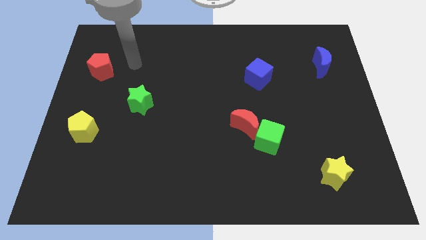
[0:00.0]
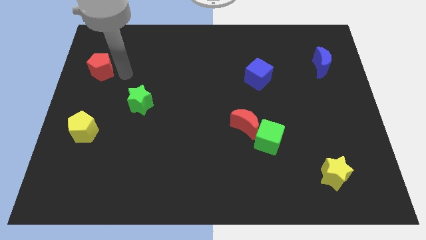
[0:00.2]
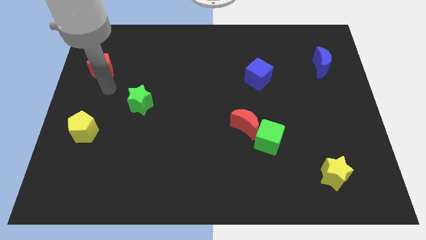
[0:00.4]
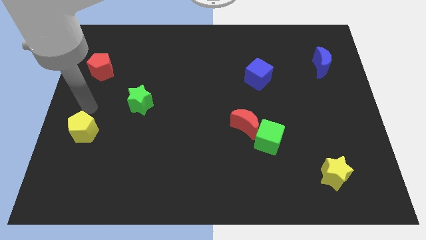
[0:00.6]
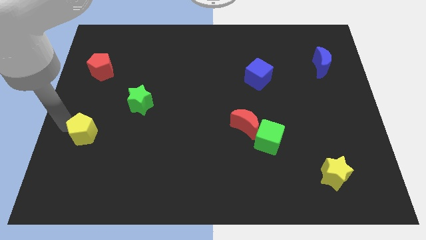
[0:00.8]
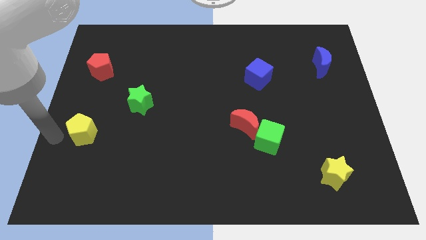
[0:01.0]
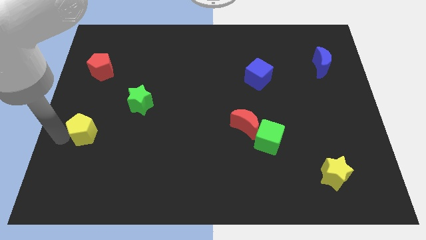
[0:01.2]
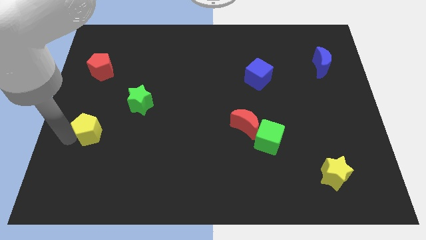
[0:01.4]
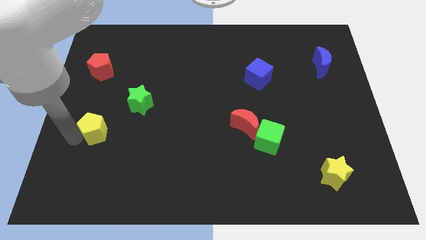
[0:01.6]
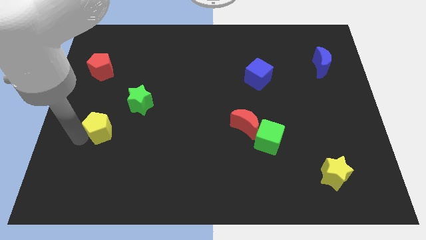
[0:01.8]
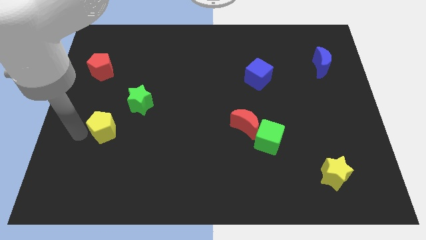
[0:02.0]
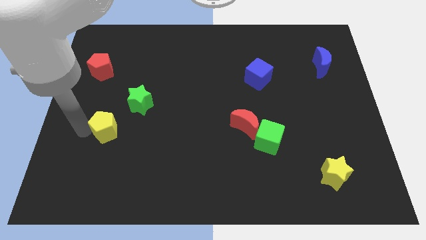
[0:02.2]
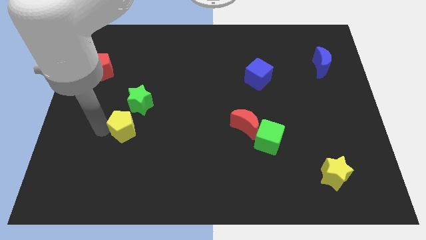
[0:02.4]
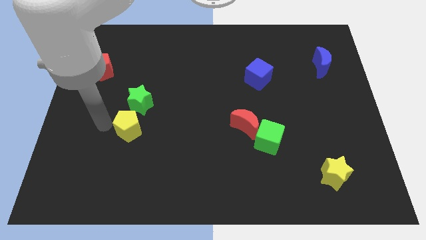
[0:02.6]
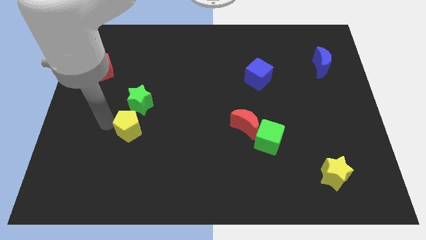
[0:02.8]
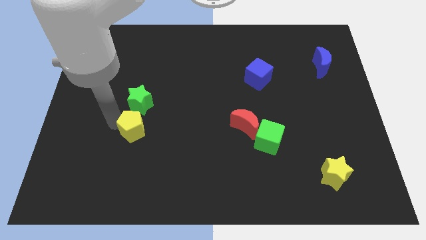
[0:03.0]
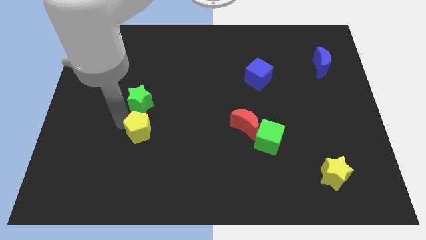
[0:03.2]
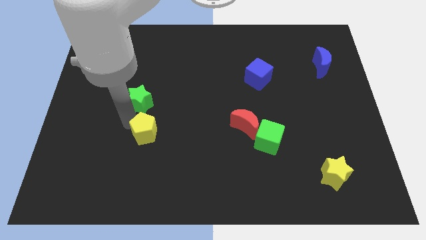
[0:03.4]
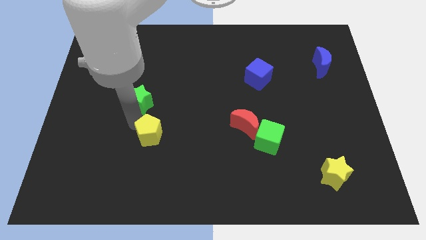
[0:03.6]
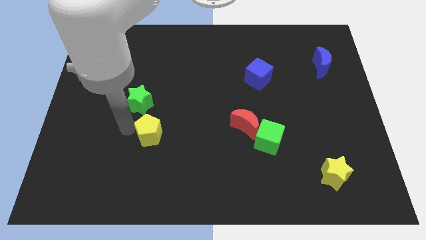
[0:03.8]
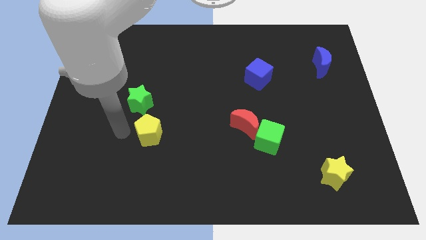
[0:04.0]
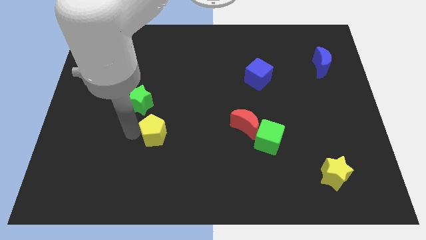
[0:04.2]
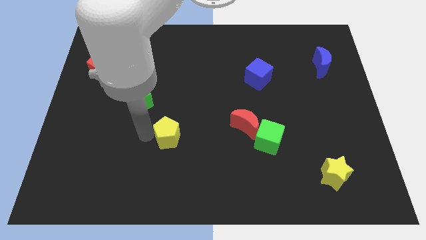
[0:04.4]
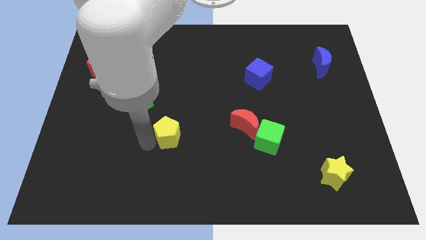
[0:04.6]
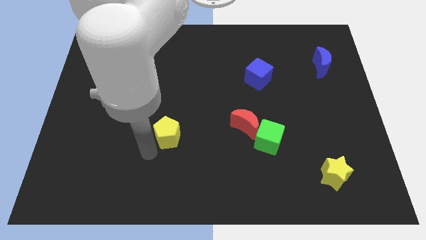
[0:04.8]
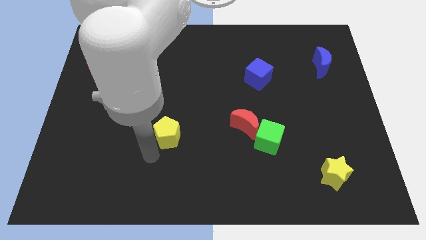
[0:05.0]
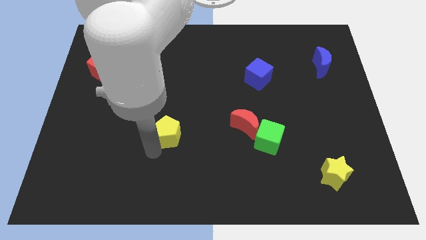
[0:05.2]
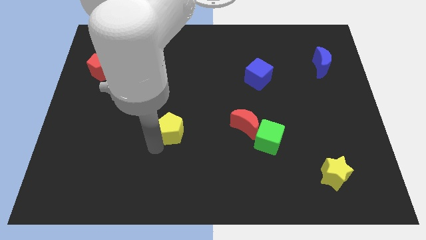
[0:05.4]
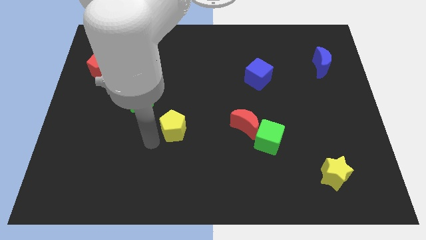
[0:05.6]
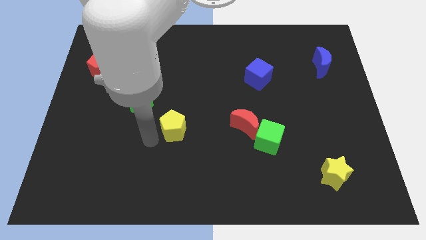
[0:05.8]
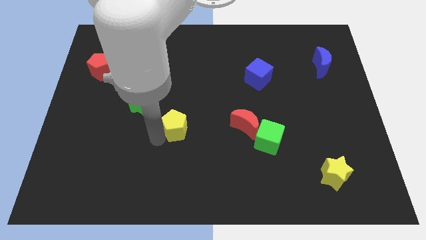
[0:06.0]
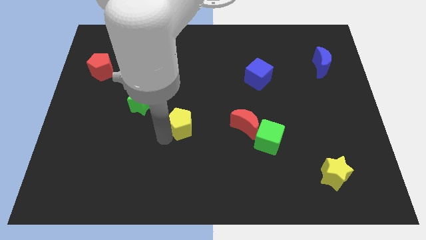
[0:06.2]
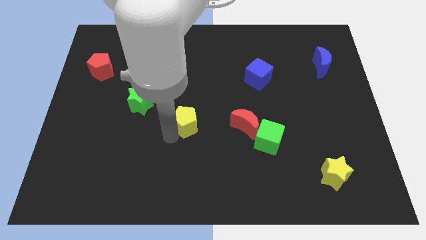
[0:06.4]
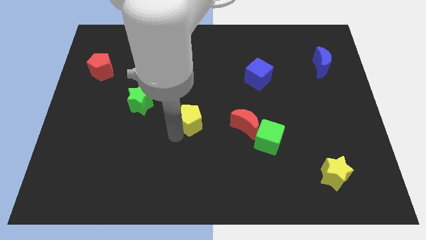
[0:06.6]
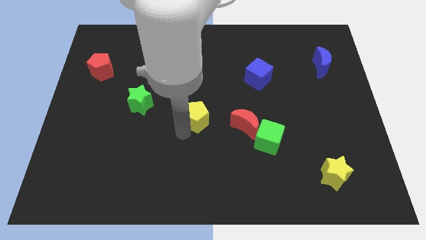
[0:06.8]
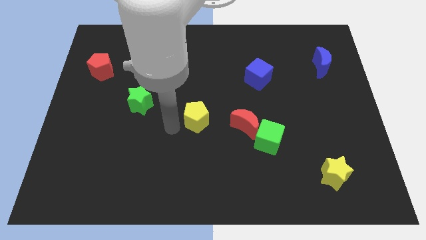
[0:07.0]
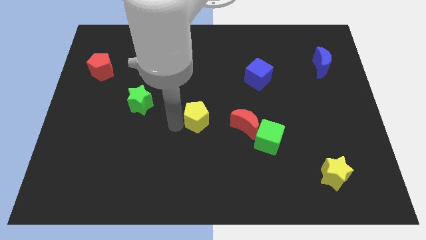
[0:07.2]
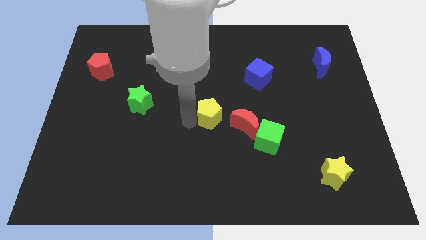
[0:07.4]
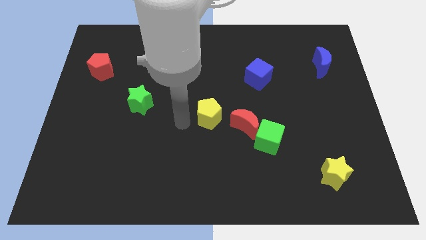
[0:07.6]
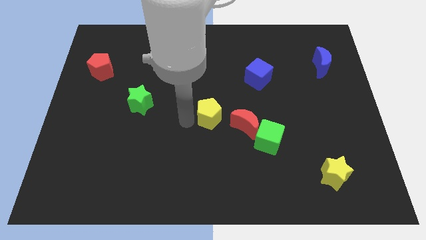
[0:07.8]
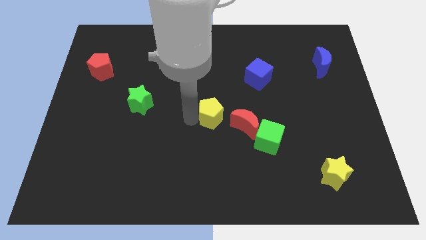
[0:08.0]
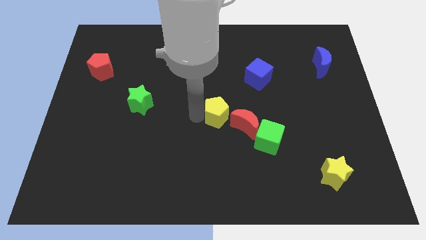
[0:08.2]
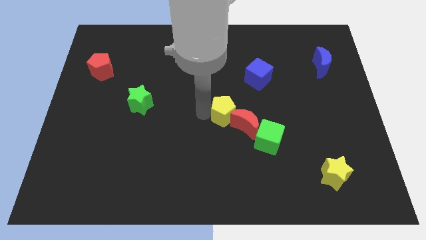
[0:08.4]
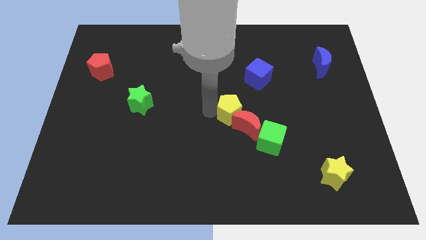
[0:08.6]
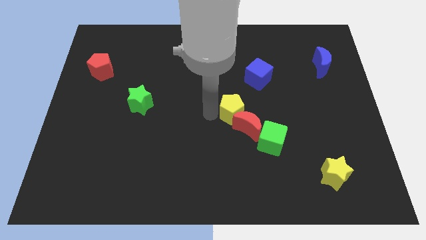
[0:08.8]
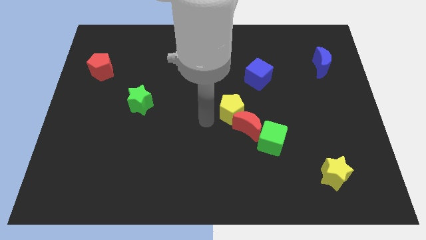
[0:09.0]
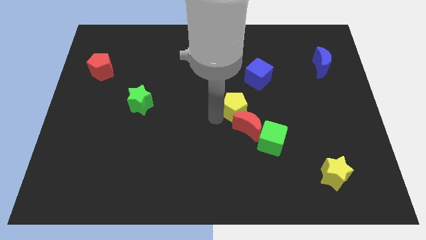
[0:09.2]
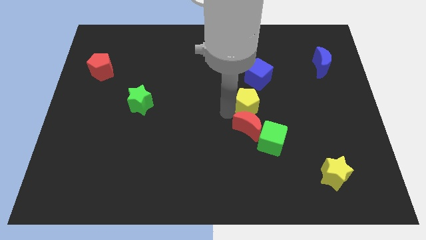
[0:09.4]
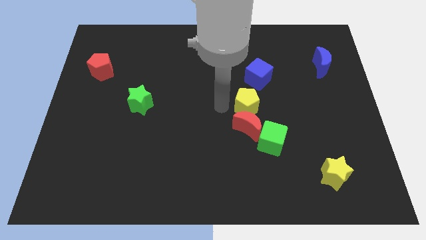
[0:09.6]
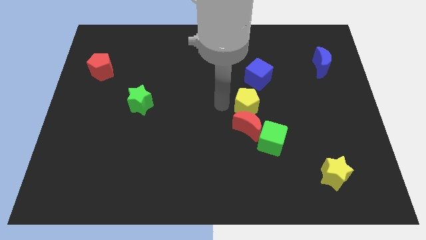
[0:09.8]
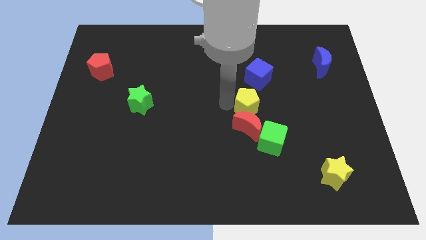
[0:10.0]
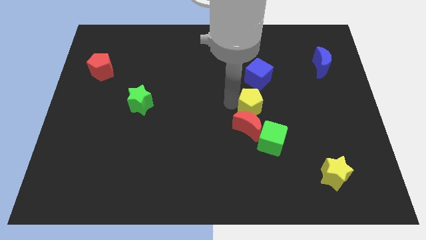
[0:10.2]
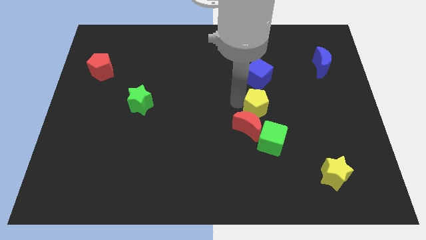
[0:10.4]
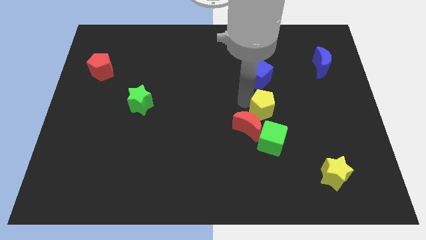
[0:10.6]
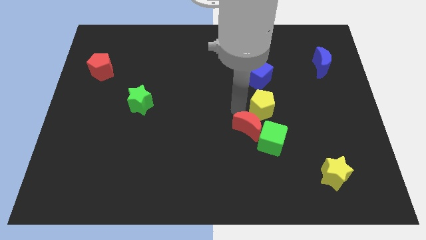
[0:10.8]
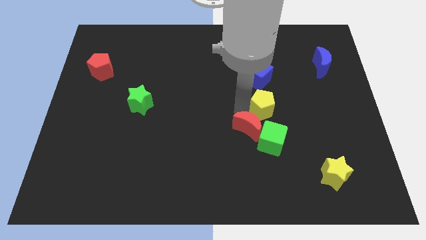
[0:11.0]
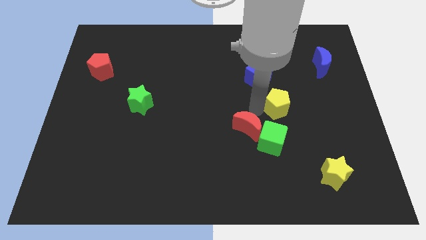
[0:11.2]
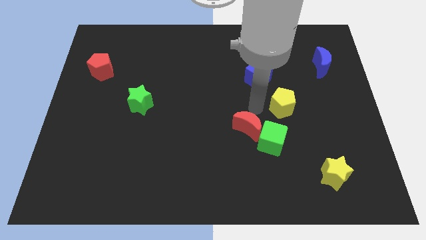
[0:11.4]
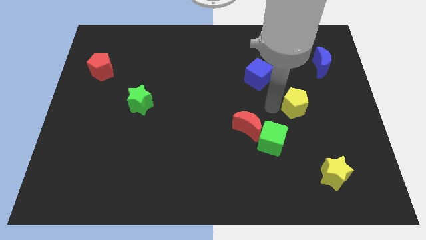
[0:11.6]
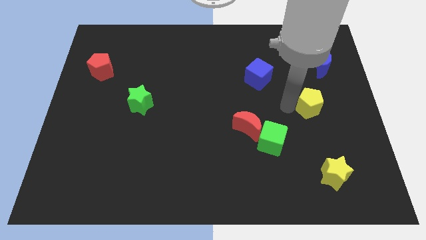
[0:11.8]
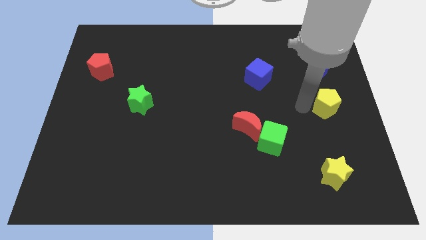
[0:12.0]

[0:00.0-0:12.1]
push the yellow pentagon to the right side of the board
